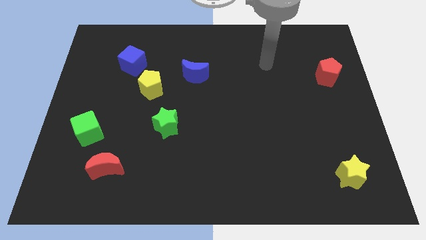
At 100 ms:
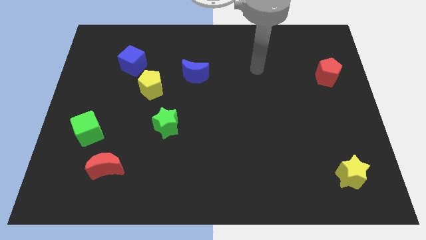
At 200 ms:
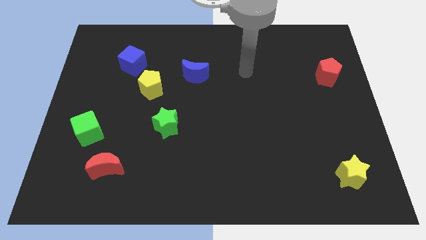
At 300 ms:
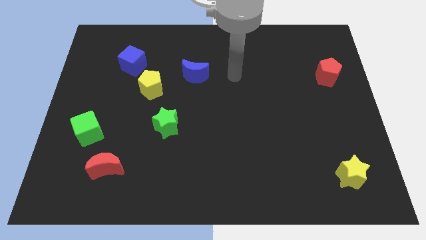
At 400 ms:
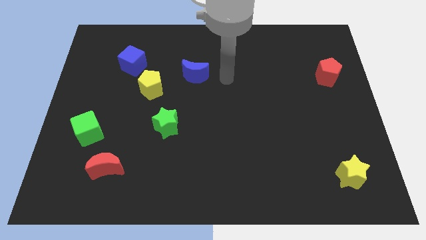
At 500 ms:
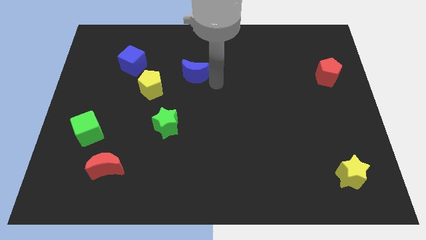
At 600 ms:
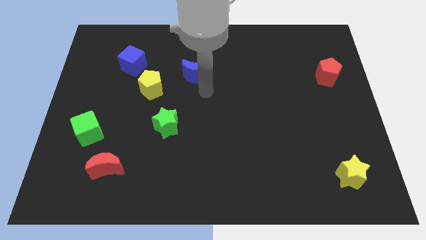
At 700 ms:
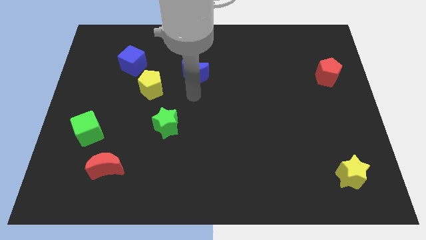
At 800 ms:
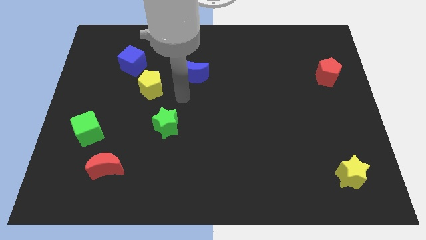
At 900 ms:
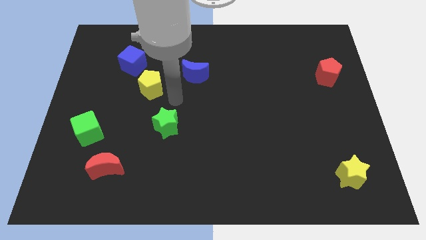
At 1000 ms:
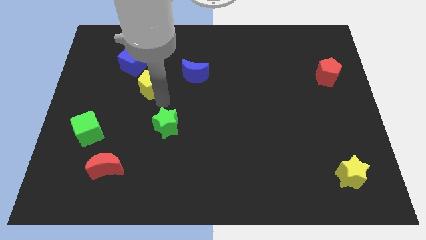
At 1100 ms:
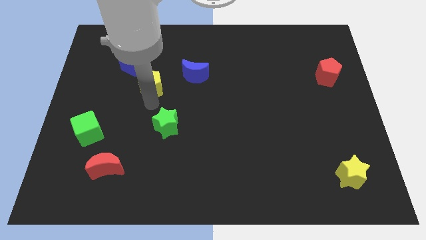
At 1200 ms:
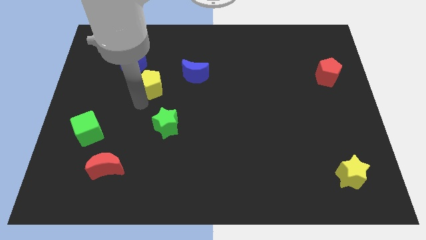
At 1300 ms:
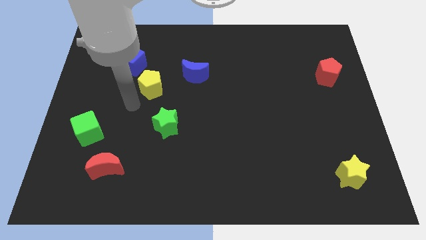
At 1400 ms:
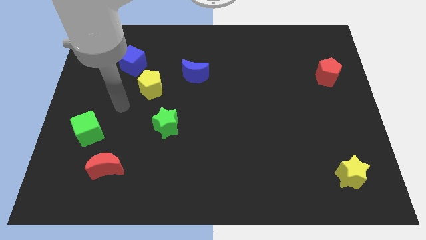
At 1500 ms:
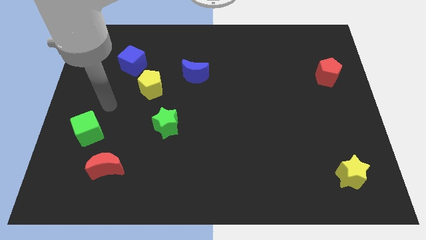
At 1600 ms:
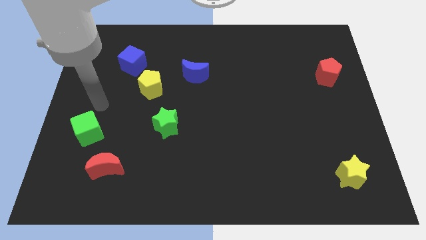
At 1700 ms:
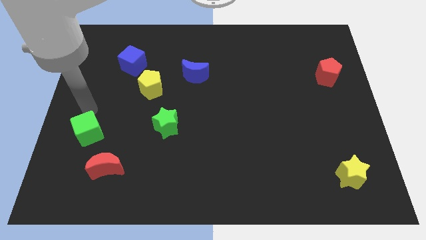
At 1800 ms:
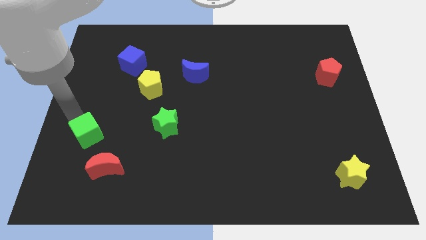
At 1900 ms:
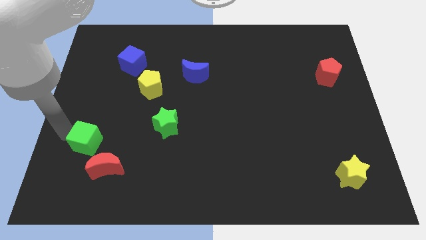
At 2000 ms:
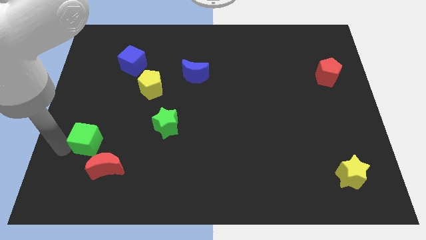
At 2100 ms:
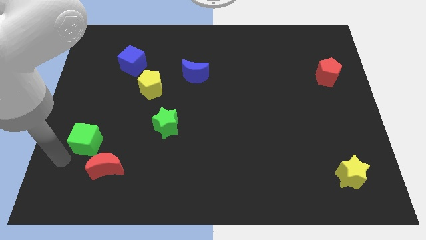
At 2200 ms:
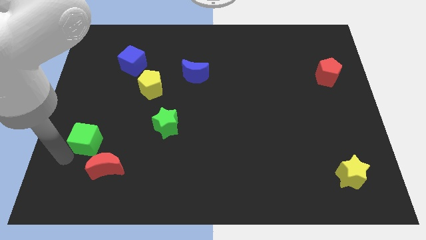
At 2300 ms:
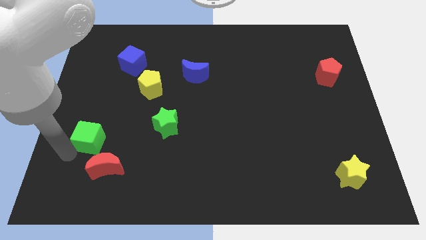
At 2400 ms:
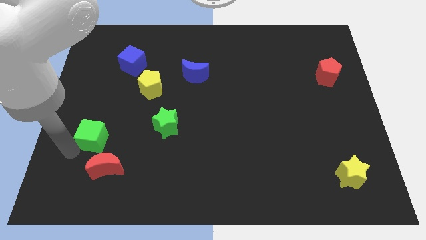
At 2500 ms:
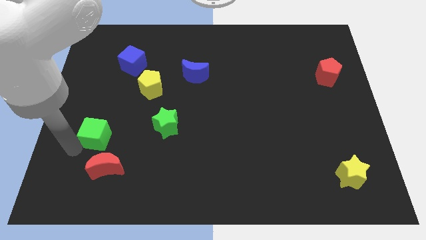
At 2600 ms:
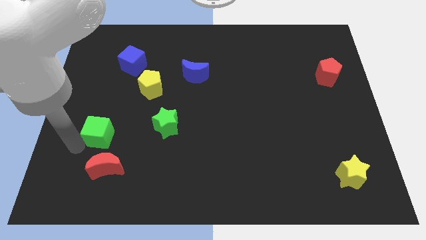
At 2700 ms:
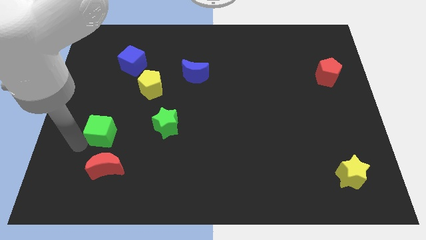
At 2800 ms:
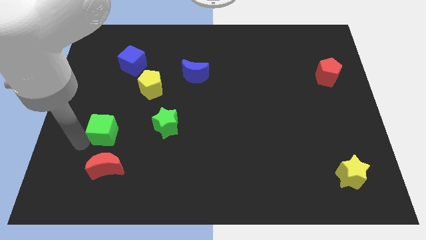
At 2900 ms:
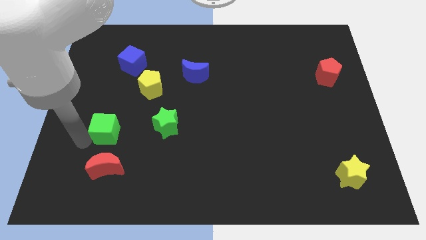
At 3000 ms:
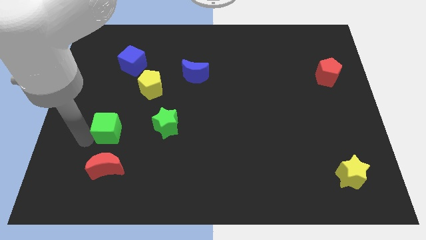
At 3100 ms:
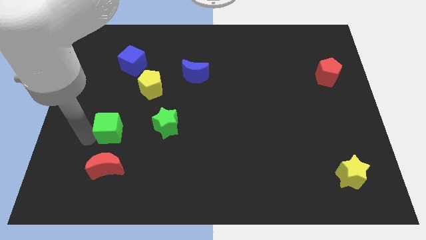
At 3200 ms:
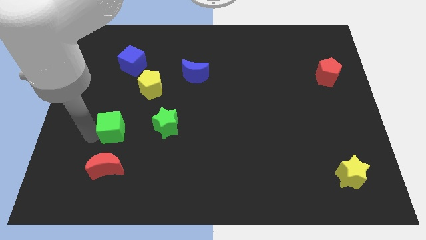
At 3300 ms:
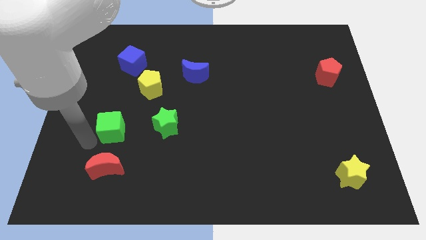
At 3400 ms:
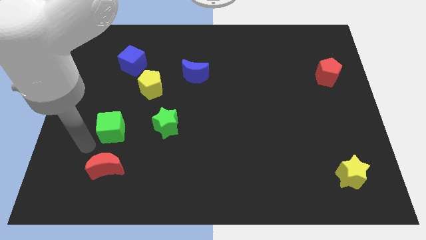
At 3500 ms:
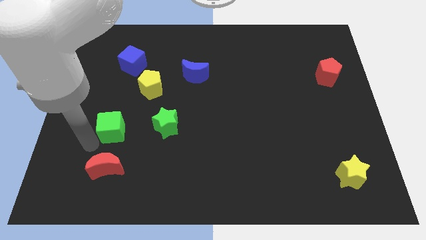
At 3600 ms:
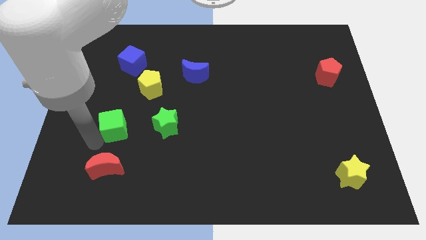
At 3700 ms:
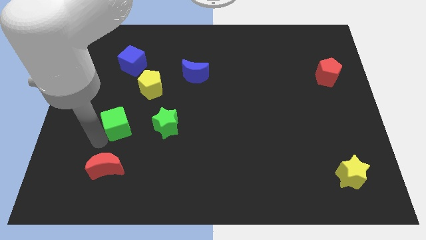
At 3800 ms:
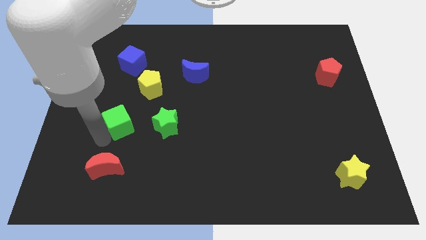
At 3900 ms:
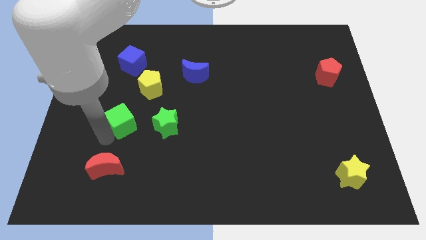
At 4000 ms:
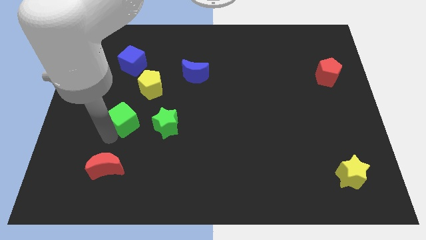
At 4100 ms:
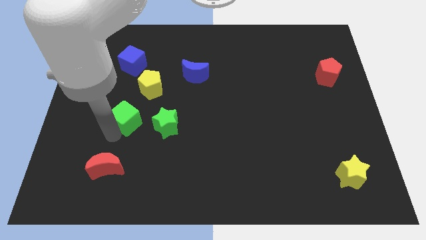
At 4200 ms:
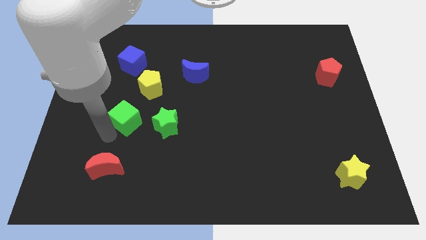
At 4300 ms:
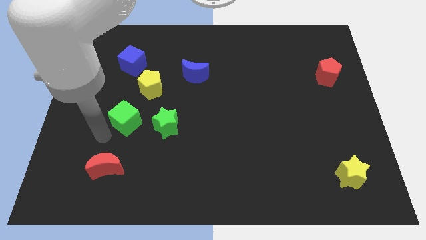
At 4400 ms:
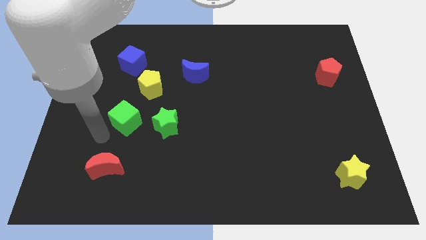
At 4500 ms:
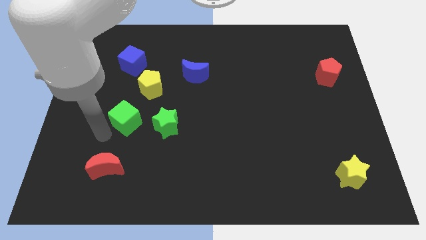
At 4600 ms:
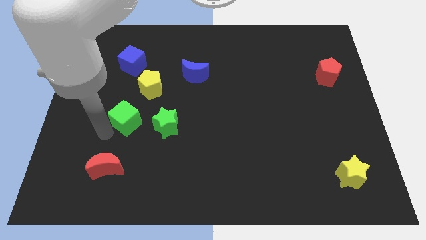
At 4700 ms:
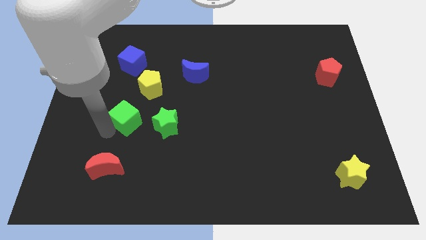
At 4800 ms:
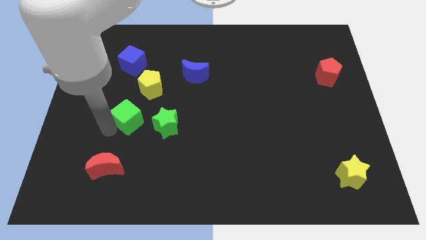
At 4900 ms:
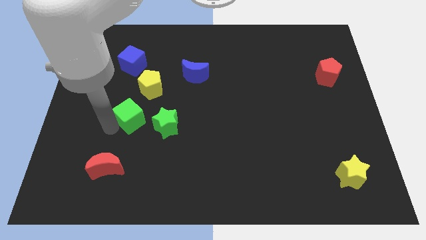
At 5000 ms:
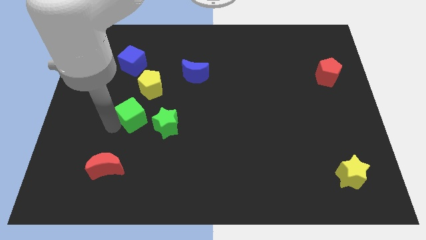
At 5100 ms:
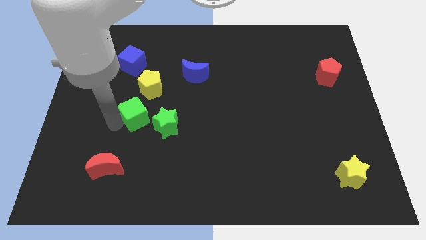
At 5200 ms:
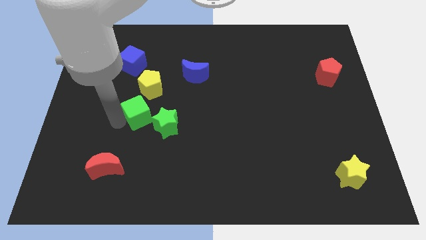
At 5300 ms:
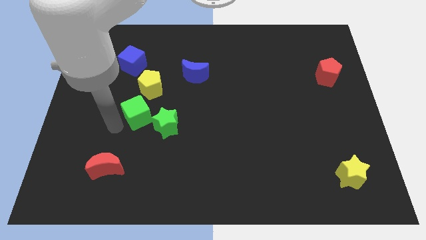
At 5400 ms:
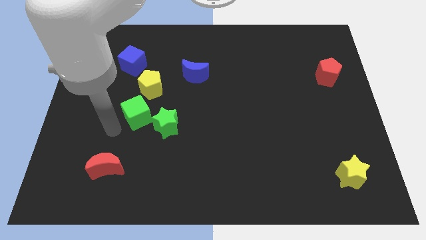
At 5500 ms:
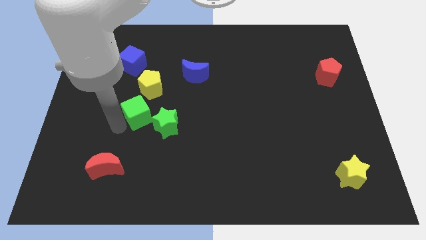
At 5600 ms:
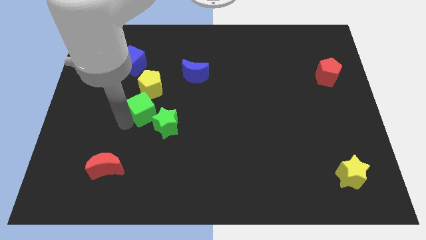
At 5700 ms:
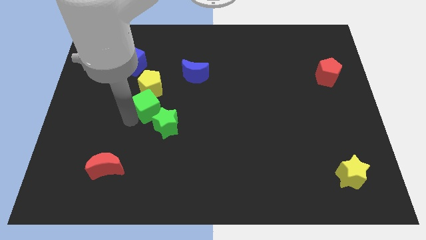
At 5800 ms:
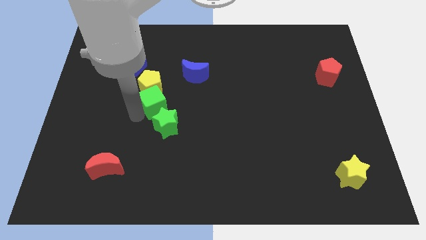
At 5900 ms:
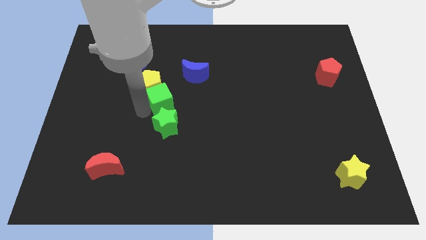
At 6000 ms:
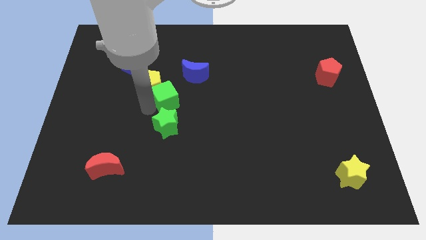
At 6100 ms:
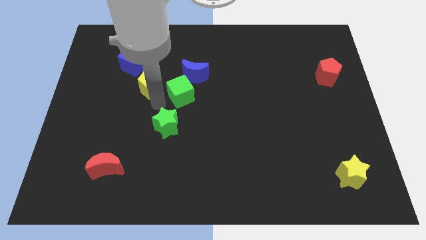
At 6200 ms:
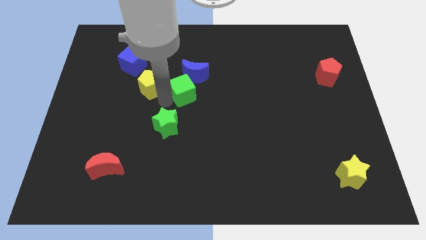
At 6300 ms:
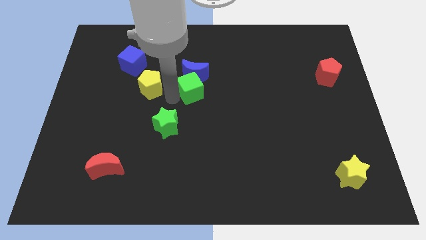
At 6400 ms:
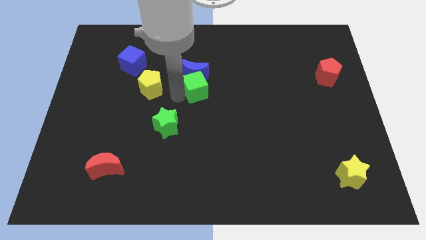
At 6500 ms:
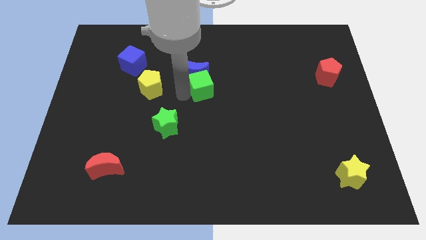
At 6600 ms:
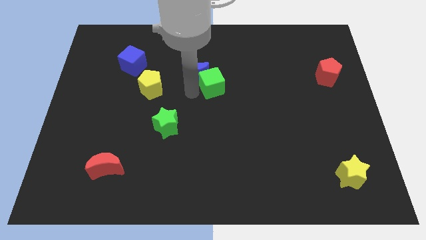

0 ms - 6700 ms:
move the green cube just right of the blue moon

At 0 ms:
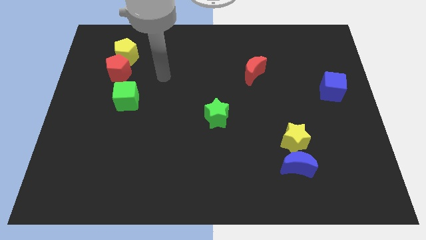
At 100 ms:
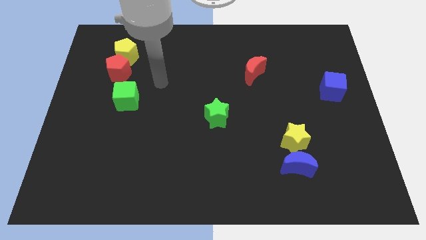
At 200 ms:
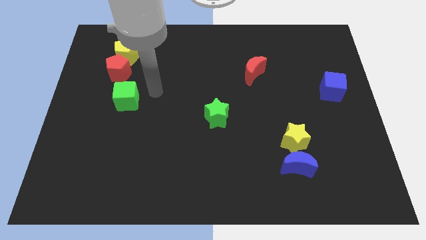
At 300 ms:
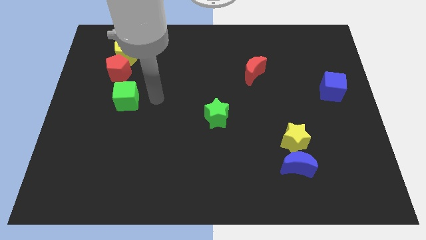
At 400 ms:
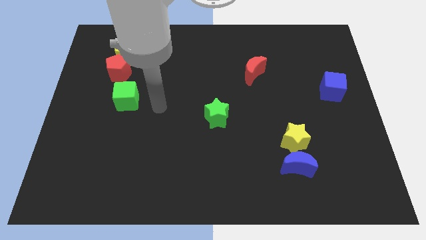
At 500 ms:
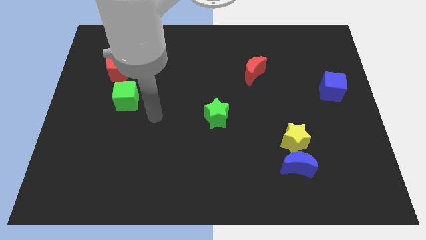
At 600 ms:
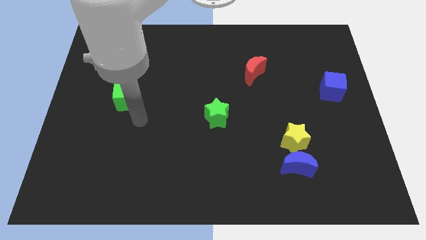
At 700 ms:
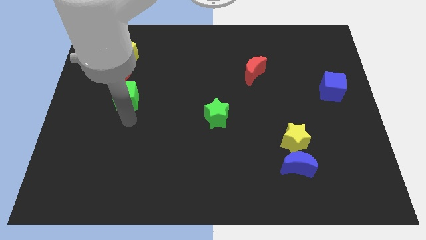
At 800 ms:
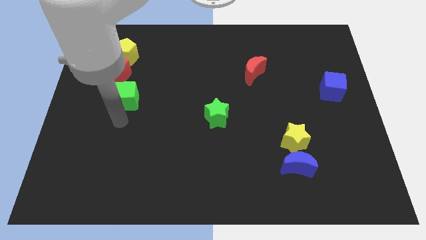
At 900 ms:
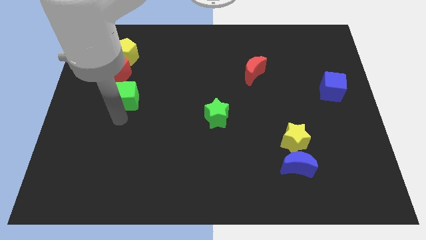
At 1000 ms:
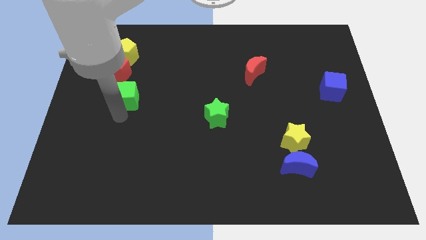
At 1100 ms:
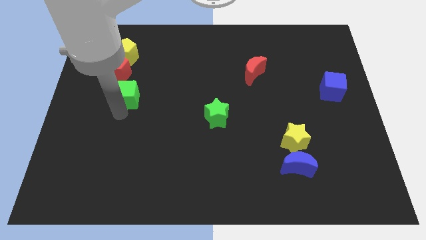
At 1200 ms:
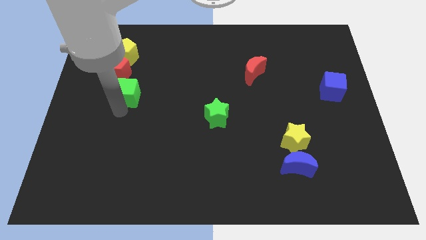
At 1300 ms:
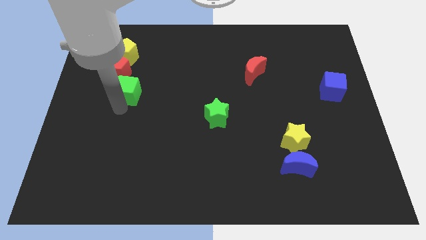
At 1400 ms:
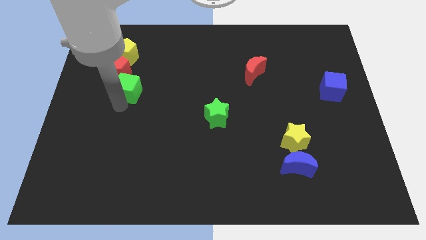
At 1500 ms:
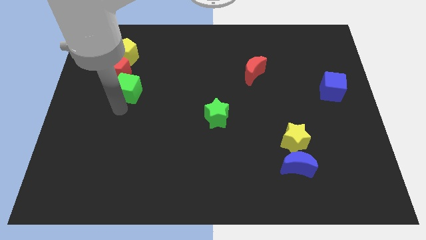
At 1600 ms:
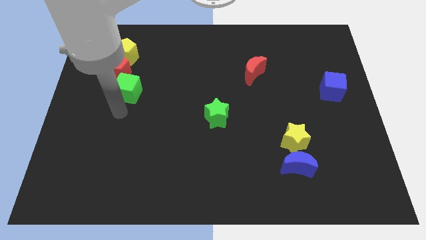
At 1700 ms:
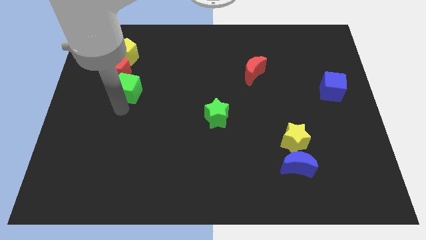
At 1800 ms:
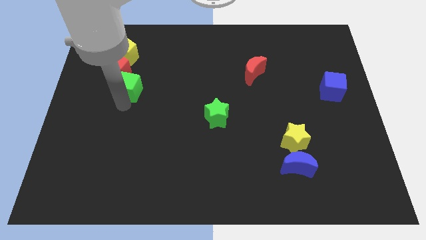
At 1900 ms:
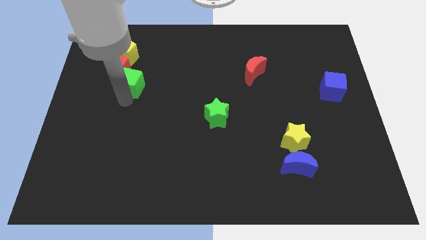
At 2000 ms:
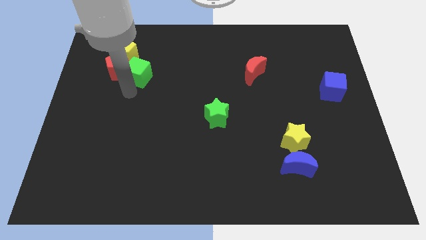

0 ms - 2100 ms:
push the green cube to the top right side of the red pentagon

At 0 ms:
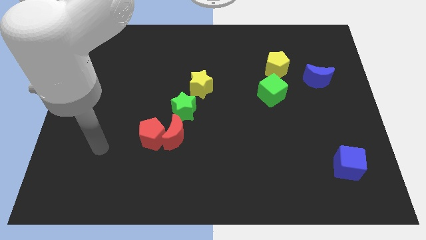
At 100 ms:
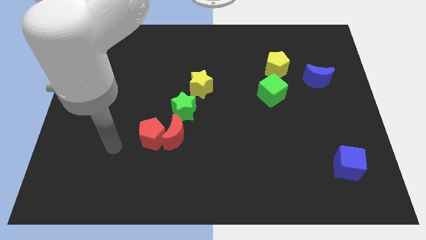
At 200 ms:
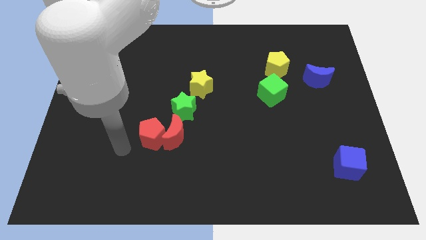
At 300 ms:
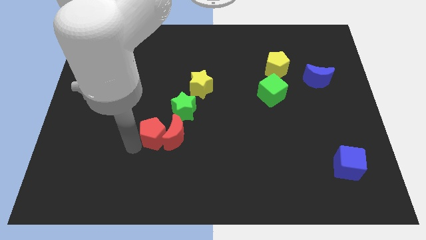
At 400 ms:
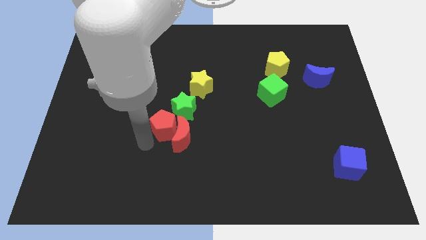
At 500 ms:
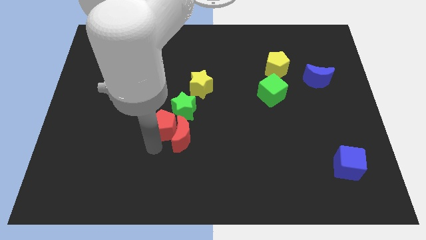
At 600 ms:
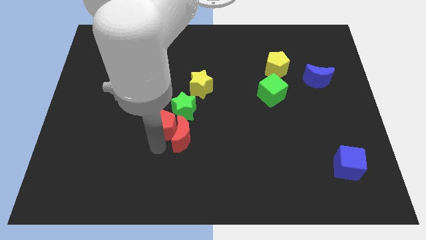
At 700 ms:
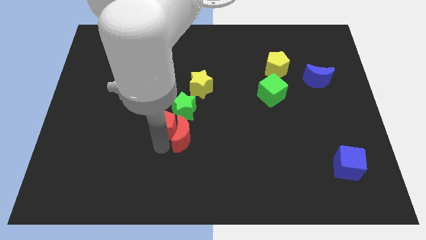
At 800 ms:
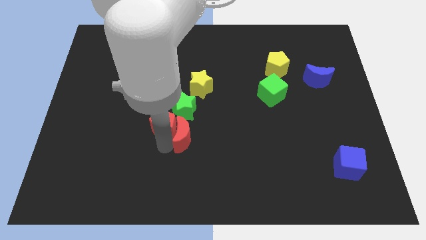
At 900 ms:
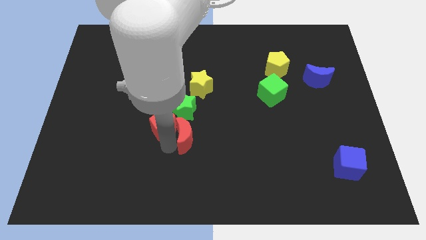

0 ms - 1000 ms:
slide the red moon to the bottom right of the green star
